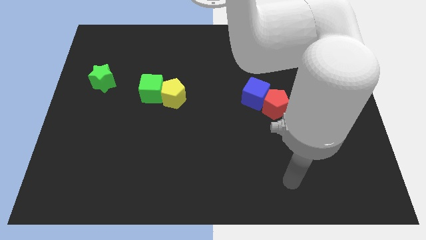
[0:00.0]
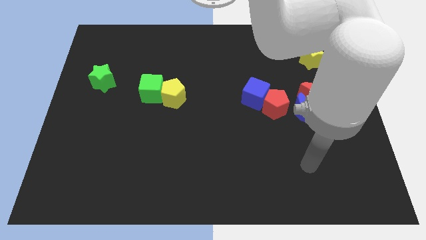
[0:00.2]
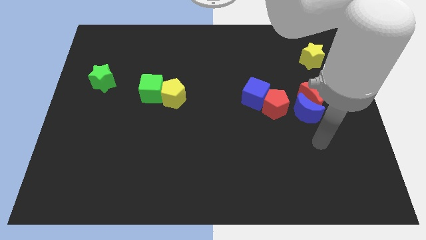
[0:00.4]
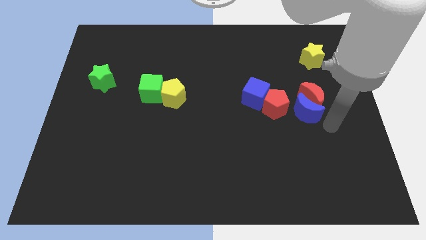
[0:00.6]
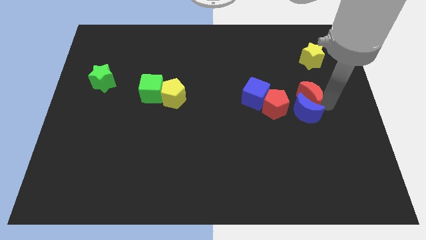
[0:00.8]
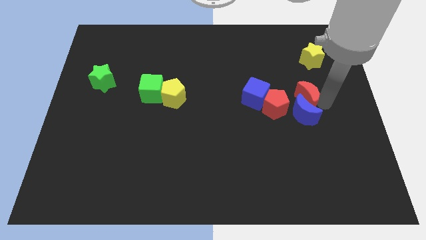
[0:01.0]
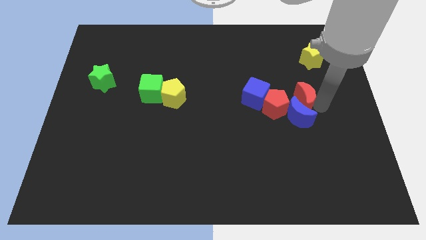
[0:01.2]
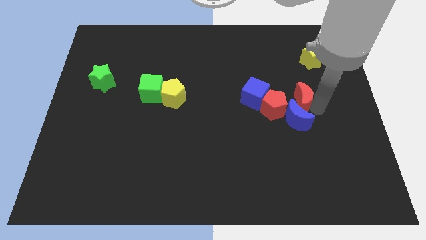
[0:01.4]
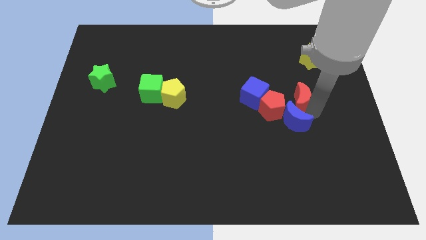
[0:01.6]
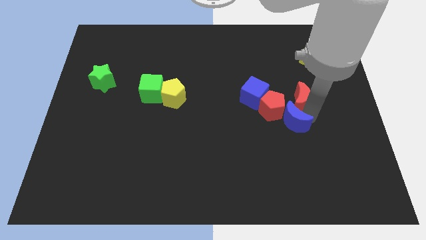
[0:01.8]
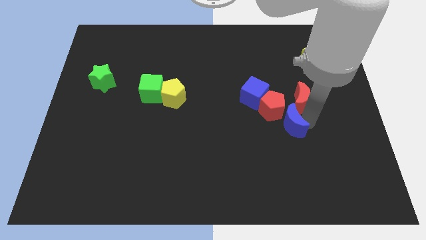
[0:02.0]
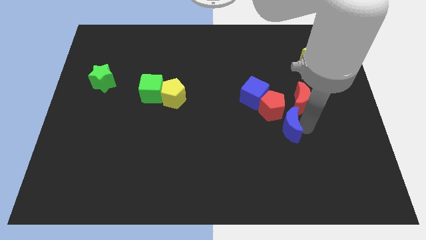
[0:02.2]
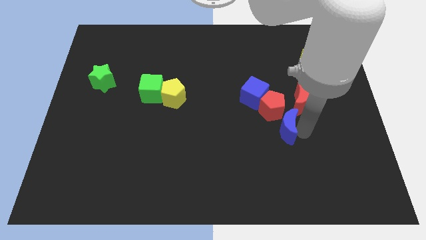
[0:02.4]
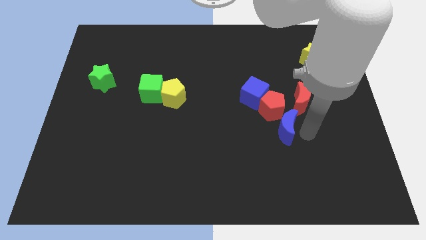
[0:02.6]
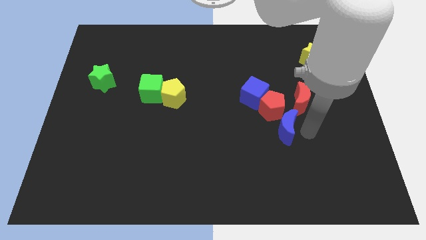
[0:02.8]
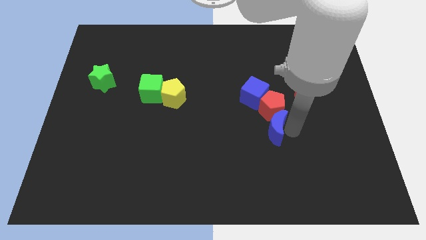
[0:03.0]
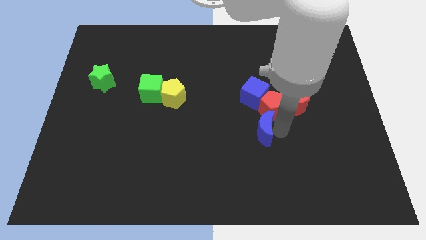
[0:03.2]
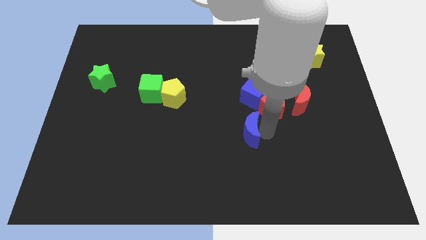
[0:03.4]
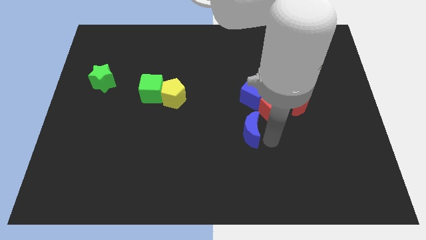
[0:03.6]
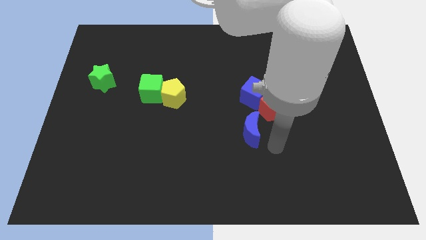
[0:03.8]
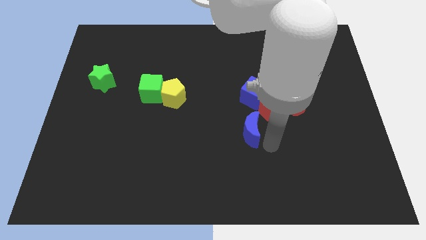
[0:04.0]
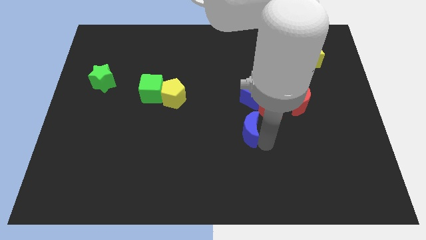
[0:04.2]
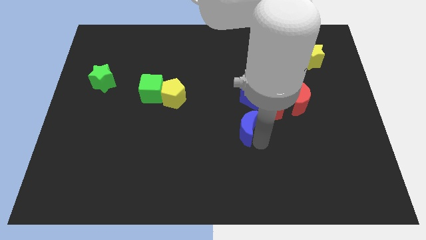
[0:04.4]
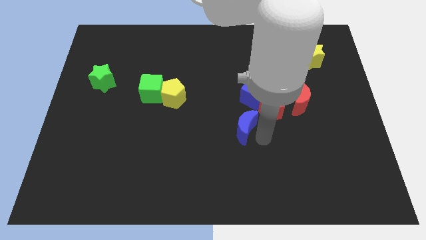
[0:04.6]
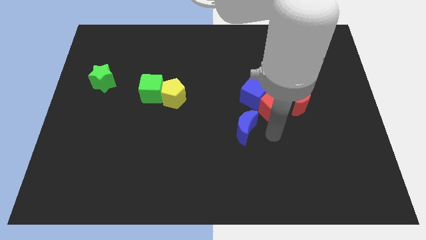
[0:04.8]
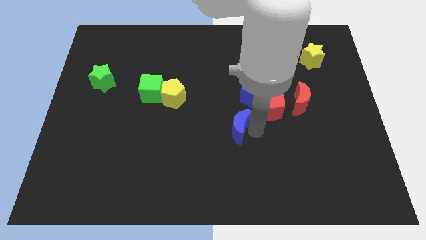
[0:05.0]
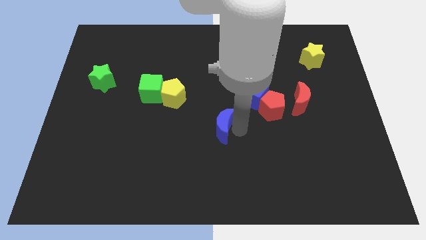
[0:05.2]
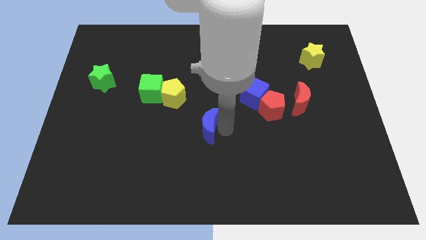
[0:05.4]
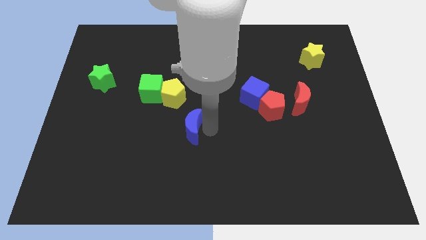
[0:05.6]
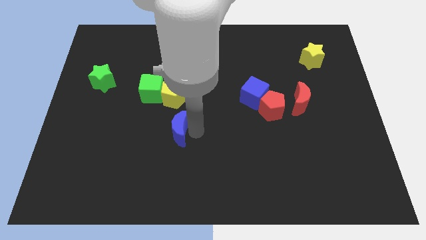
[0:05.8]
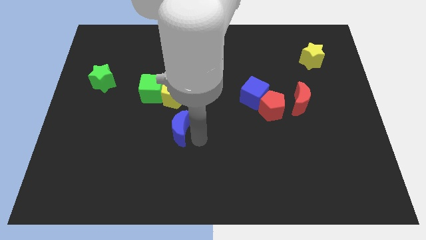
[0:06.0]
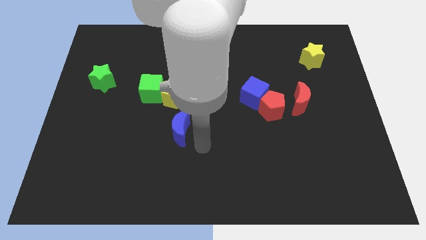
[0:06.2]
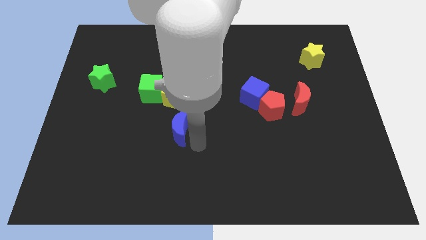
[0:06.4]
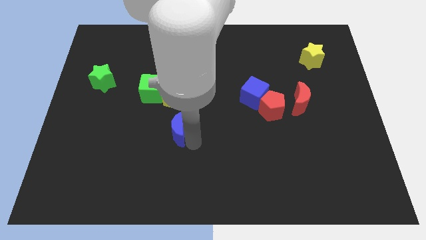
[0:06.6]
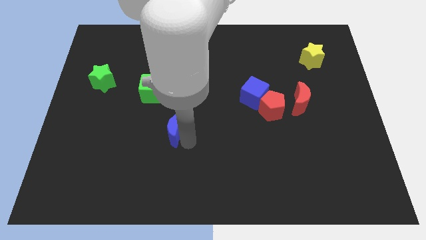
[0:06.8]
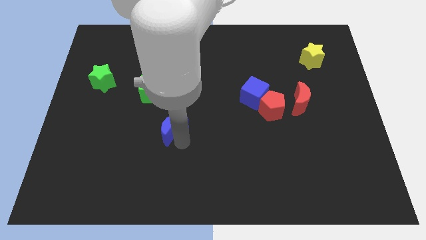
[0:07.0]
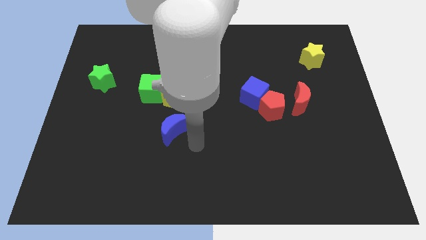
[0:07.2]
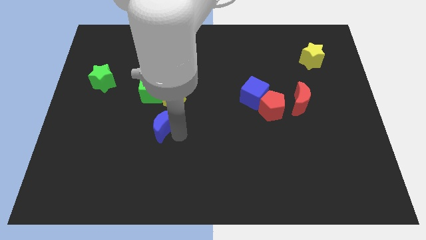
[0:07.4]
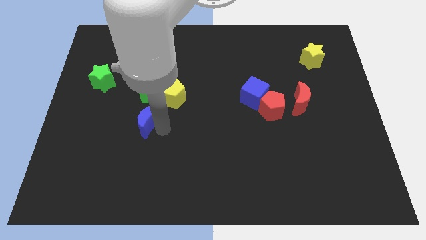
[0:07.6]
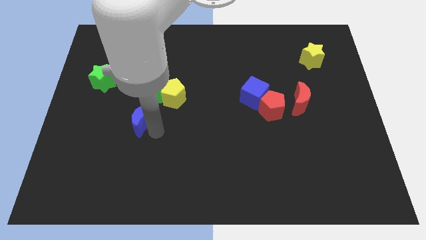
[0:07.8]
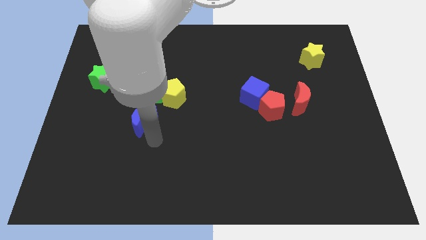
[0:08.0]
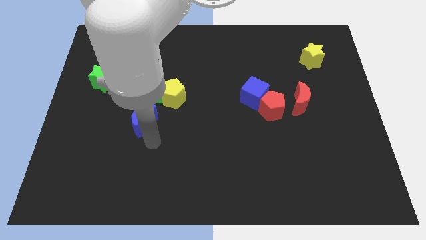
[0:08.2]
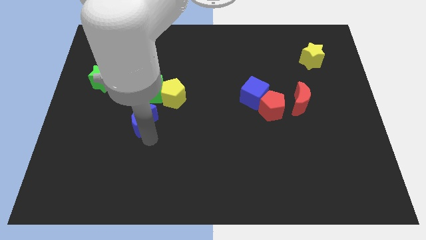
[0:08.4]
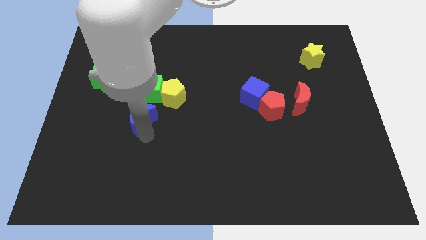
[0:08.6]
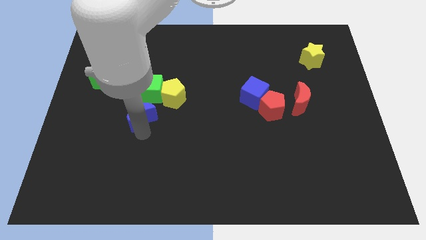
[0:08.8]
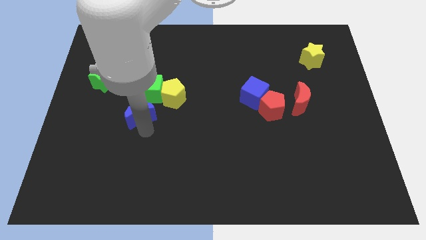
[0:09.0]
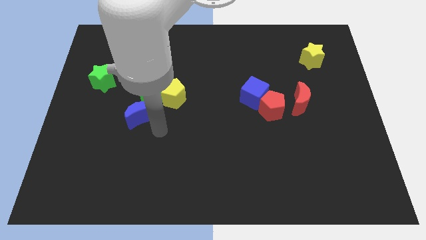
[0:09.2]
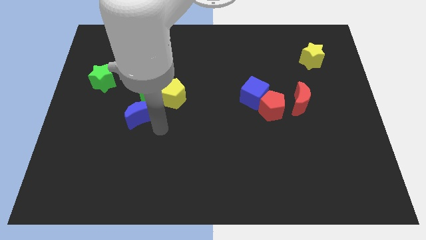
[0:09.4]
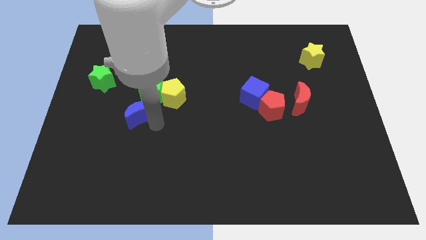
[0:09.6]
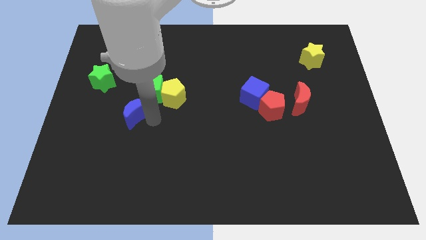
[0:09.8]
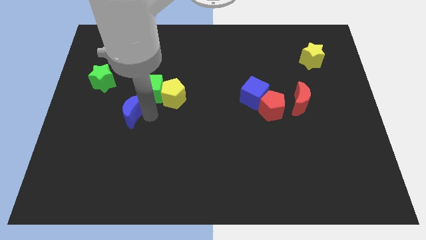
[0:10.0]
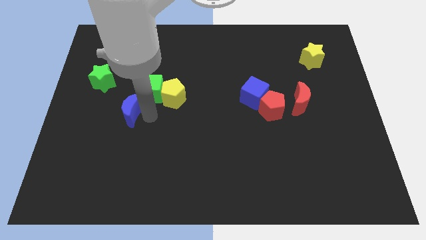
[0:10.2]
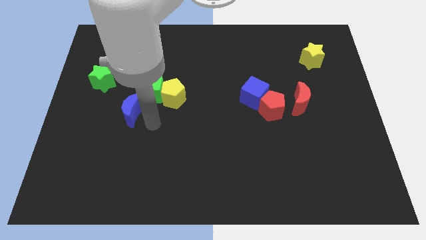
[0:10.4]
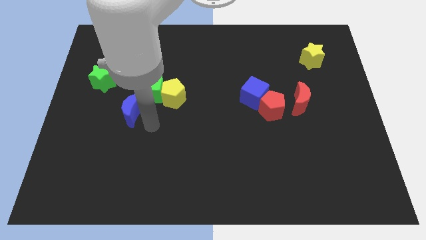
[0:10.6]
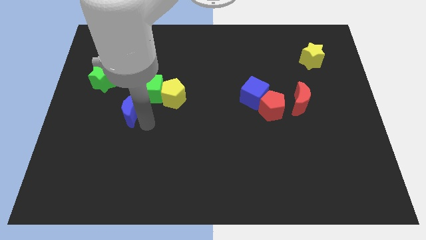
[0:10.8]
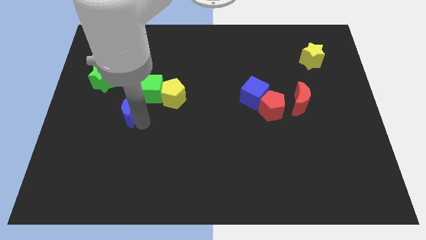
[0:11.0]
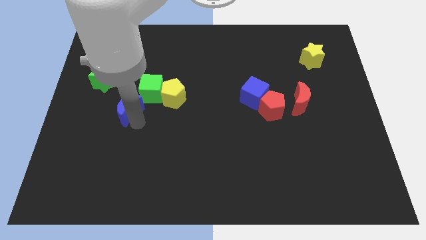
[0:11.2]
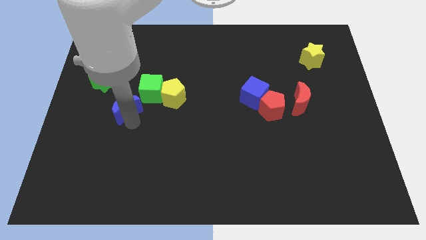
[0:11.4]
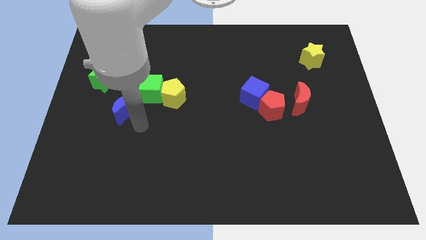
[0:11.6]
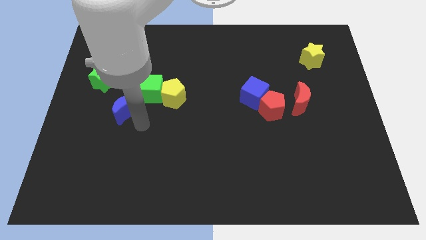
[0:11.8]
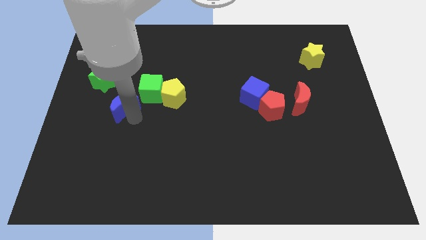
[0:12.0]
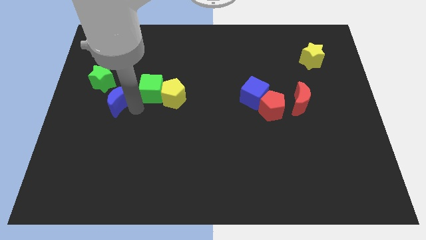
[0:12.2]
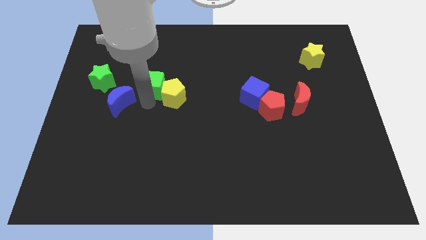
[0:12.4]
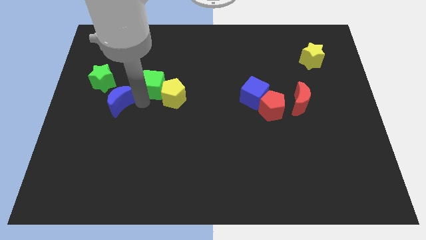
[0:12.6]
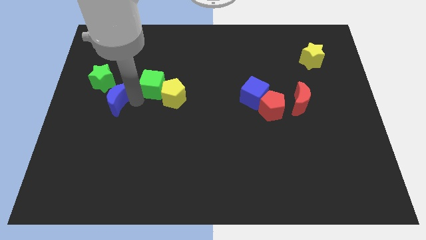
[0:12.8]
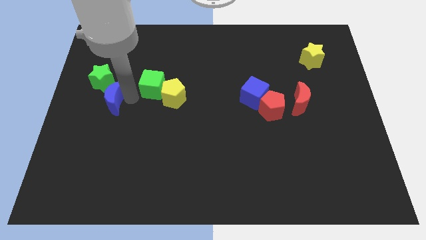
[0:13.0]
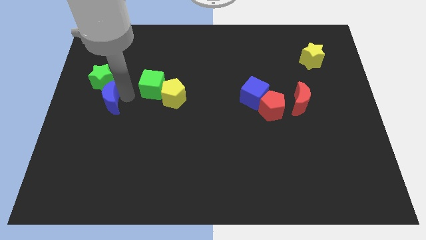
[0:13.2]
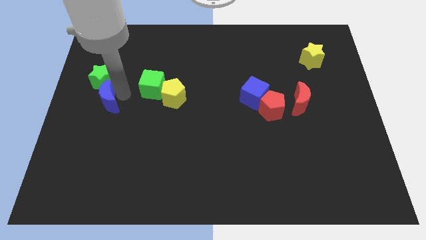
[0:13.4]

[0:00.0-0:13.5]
put the blue moon to the left side of the board

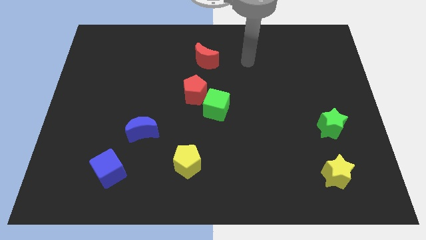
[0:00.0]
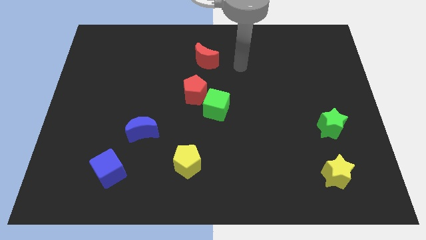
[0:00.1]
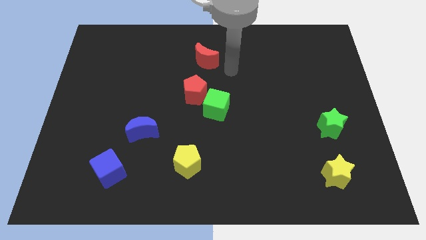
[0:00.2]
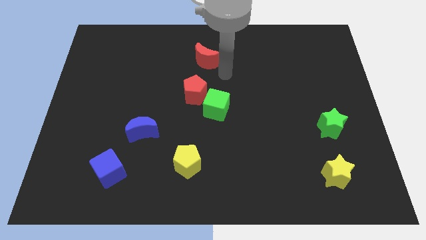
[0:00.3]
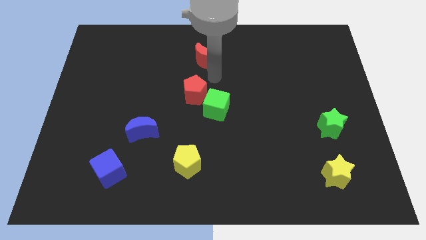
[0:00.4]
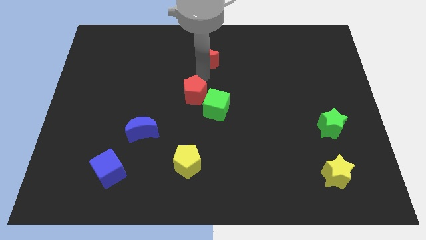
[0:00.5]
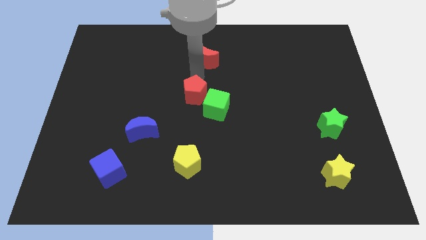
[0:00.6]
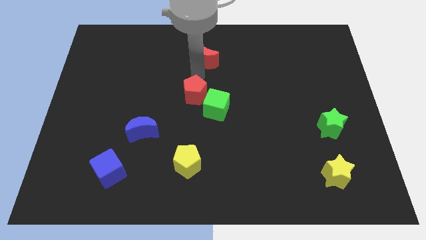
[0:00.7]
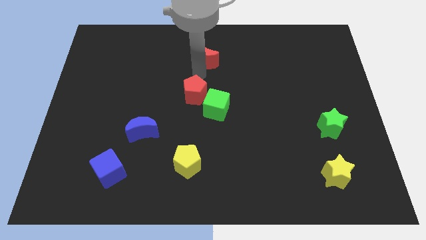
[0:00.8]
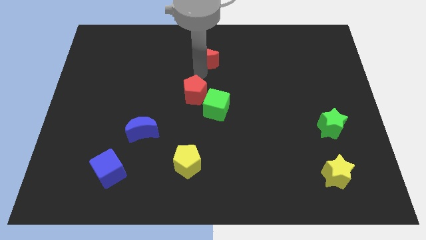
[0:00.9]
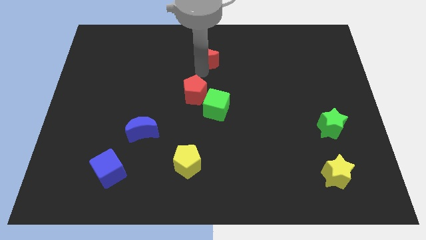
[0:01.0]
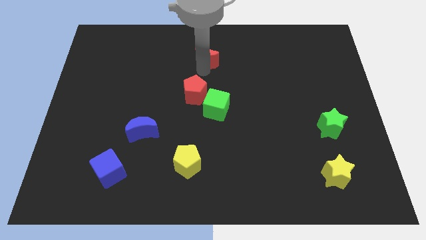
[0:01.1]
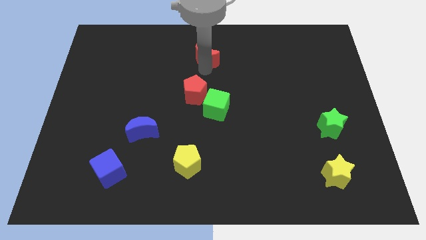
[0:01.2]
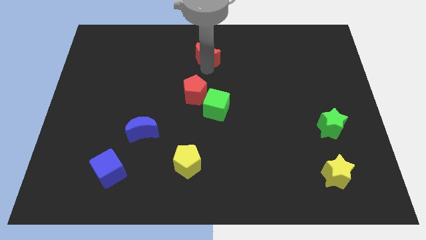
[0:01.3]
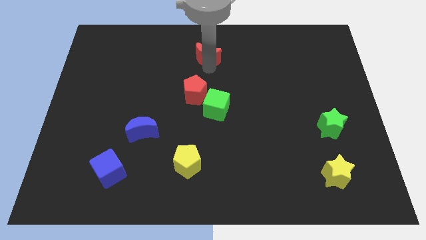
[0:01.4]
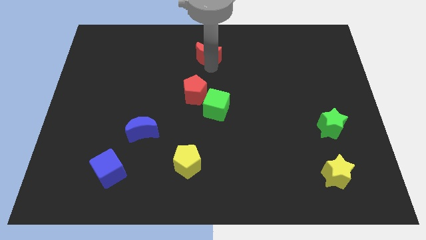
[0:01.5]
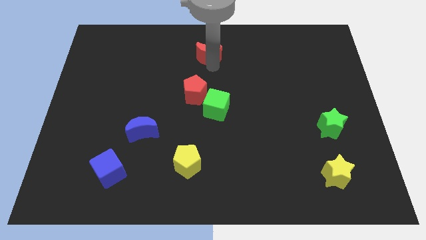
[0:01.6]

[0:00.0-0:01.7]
put the red moon to the towards your base
